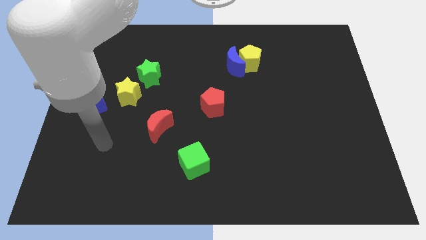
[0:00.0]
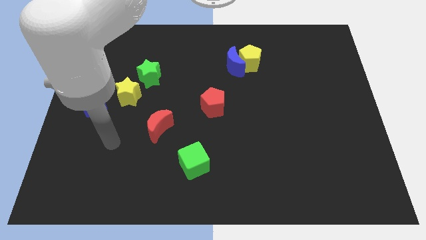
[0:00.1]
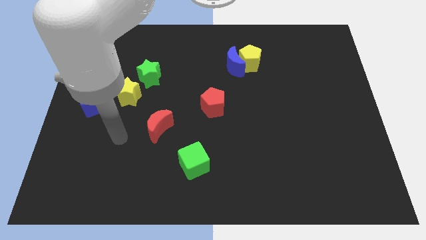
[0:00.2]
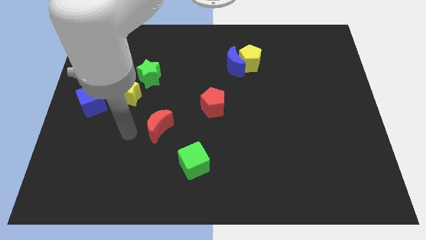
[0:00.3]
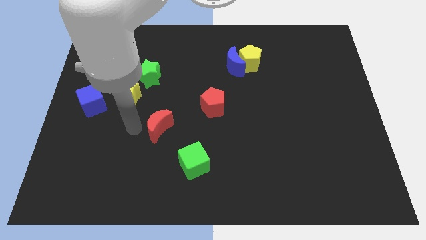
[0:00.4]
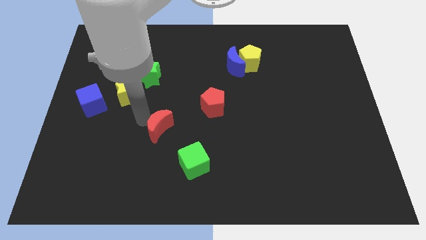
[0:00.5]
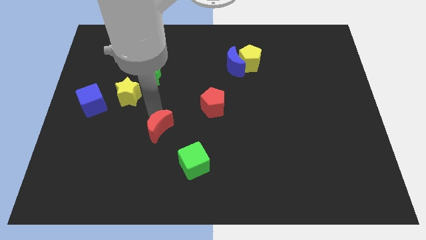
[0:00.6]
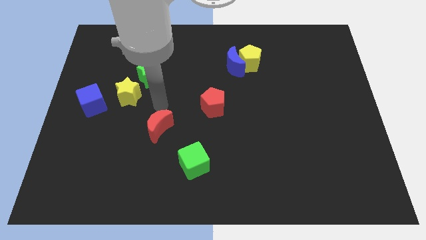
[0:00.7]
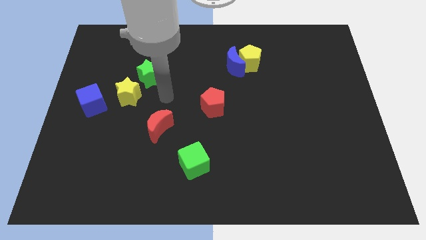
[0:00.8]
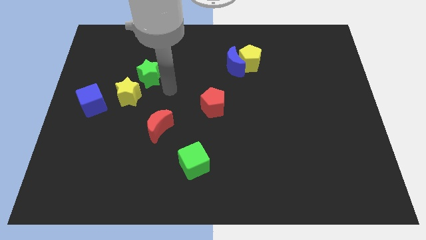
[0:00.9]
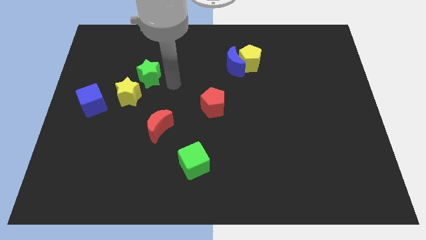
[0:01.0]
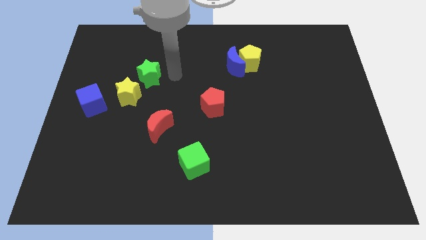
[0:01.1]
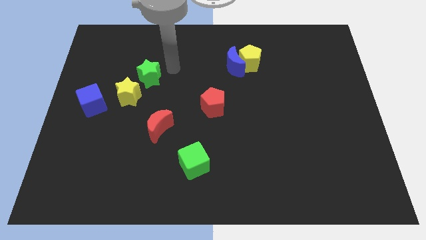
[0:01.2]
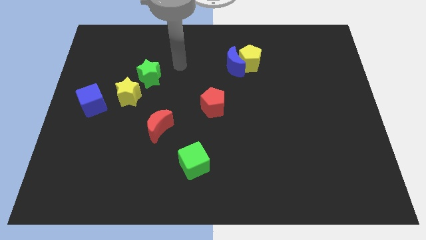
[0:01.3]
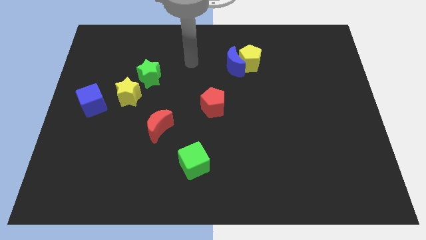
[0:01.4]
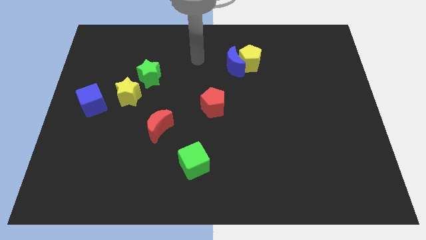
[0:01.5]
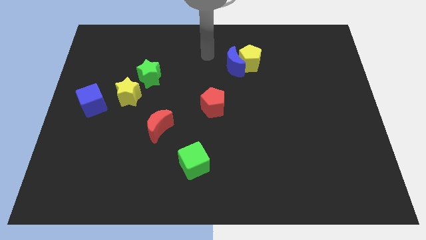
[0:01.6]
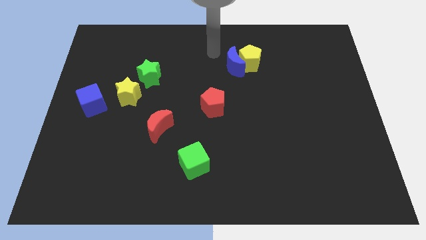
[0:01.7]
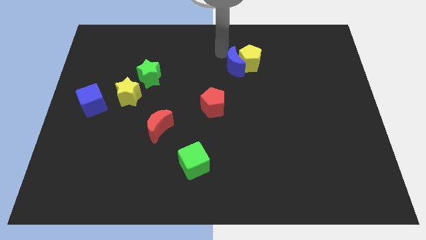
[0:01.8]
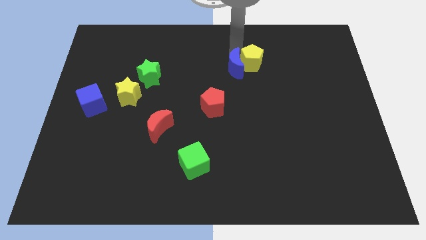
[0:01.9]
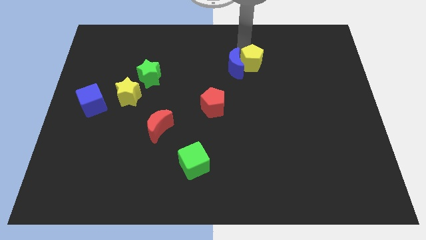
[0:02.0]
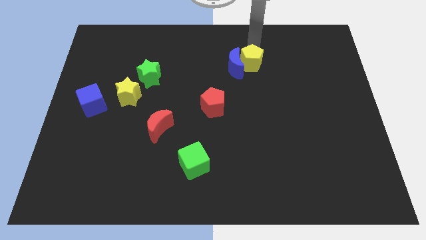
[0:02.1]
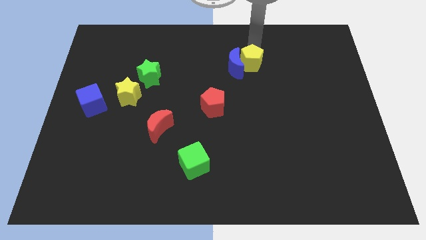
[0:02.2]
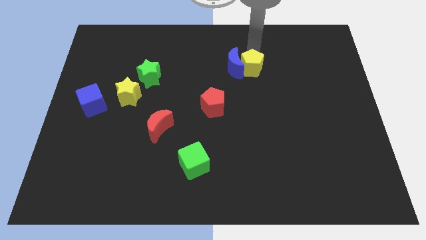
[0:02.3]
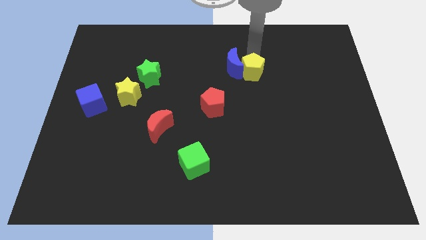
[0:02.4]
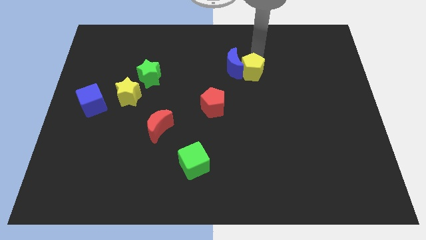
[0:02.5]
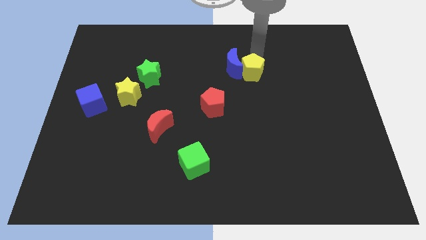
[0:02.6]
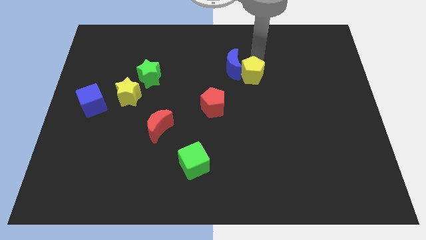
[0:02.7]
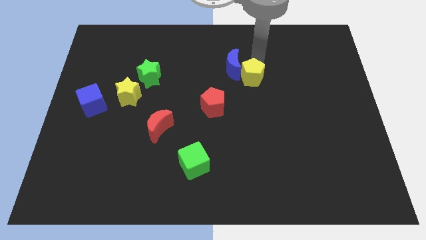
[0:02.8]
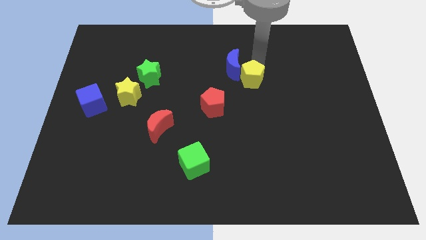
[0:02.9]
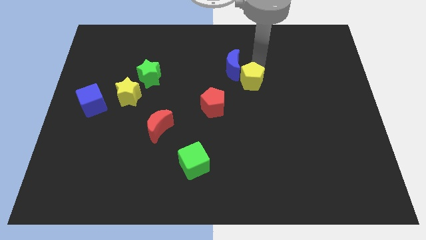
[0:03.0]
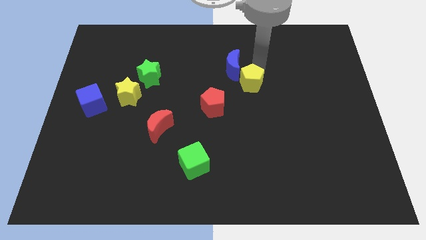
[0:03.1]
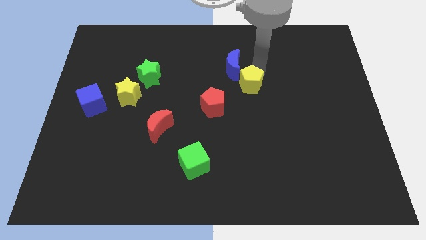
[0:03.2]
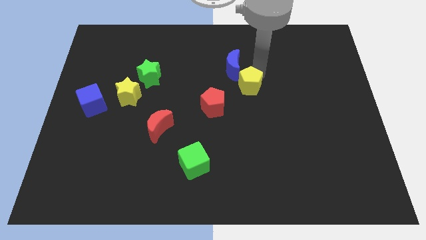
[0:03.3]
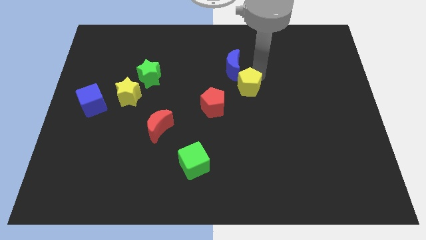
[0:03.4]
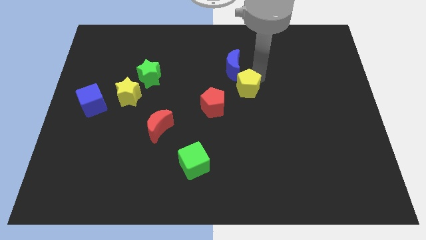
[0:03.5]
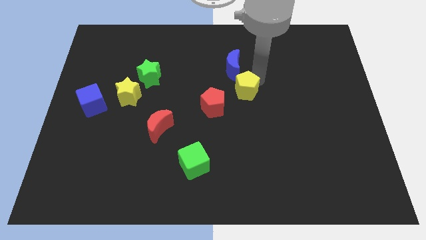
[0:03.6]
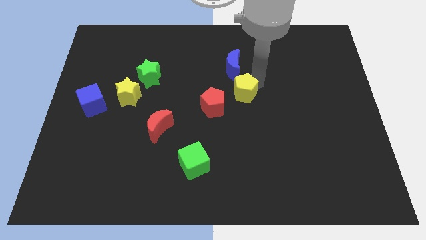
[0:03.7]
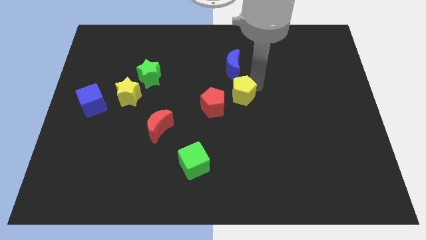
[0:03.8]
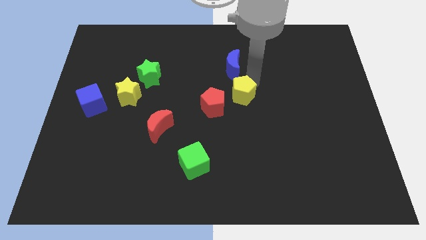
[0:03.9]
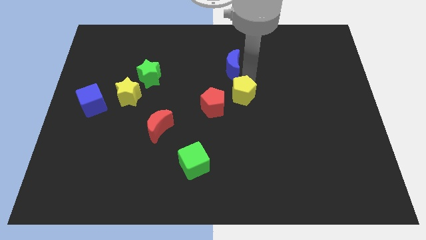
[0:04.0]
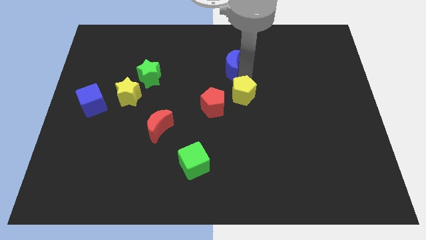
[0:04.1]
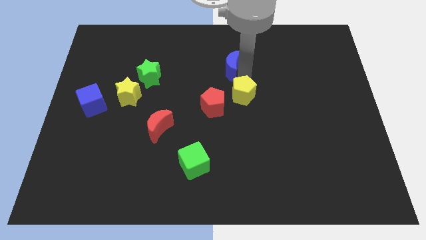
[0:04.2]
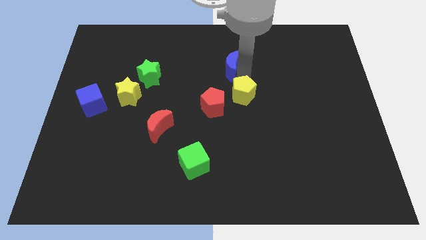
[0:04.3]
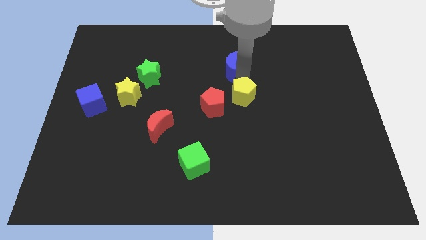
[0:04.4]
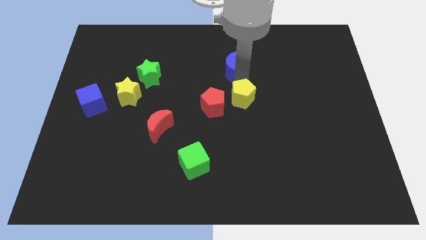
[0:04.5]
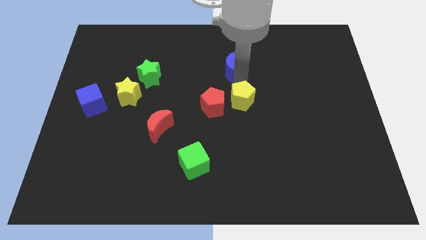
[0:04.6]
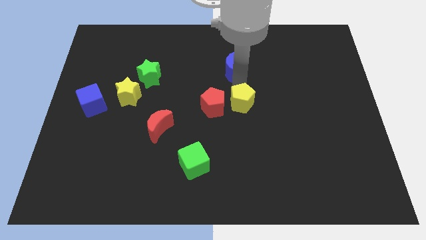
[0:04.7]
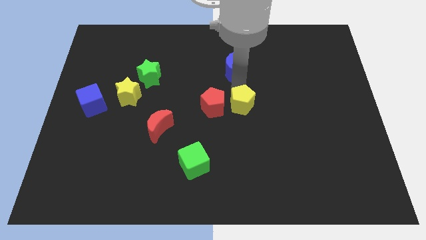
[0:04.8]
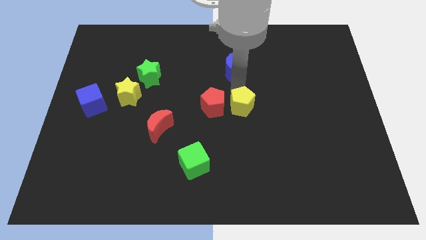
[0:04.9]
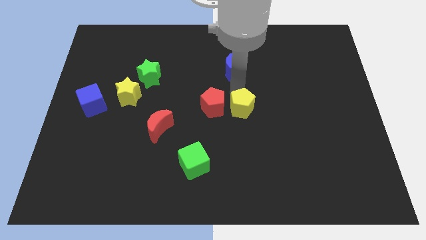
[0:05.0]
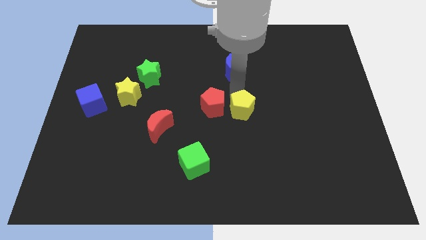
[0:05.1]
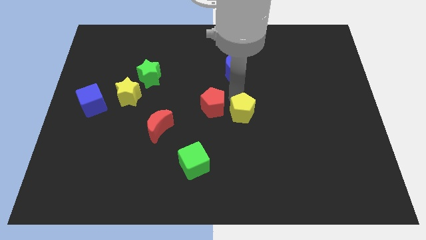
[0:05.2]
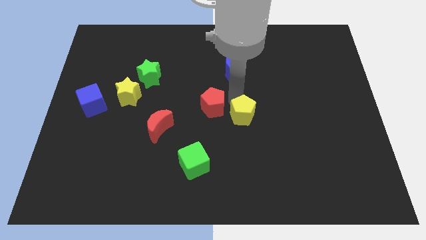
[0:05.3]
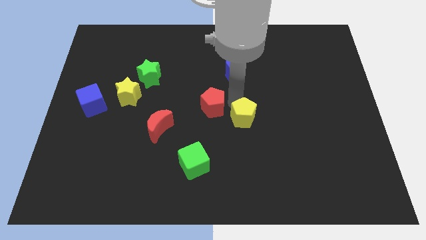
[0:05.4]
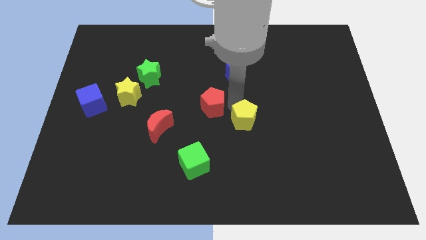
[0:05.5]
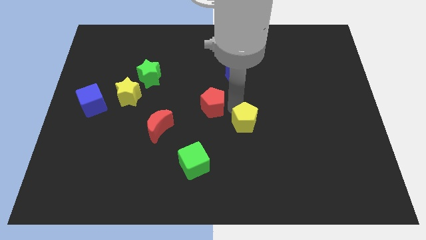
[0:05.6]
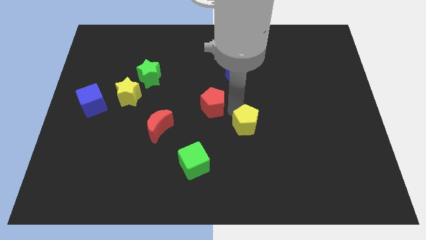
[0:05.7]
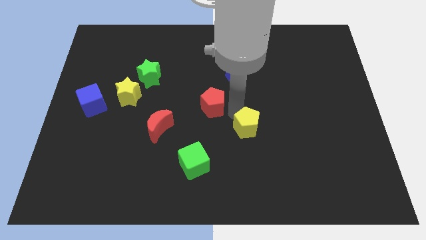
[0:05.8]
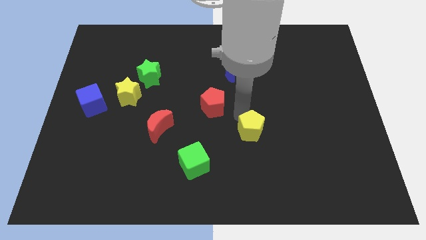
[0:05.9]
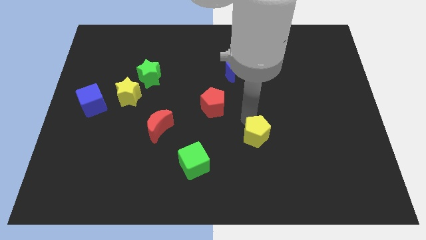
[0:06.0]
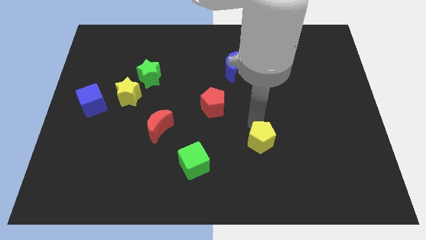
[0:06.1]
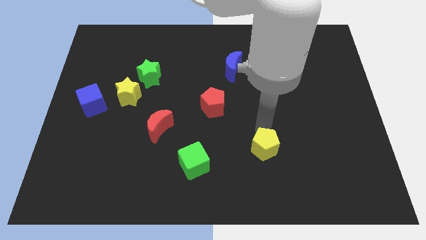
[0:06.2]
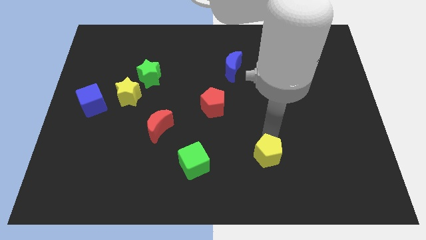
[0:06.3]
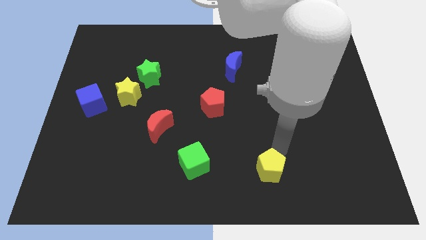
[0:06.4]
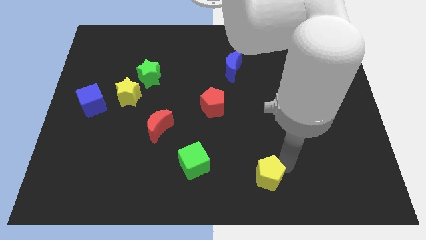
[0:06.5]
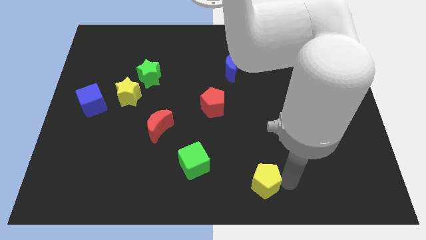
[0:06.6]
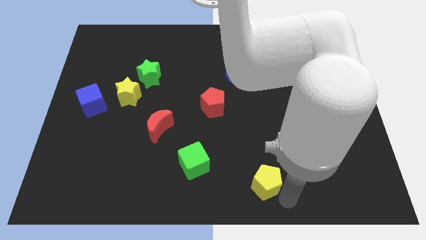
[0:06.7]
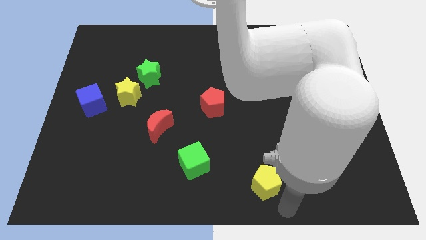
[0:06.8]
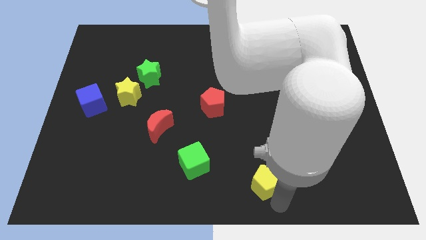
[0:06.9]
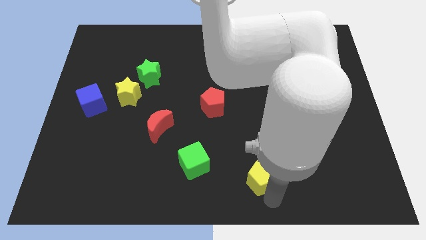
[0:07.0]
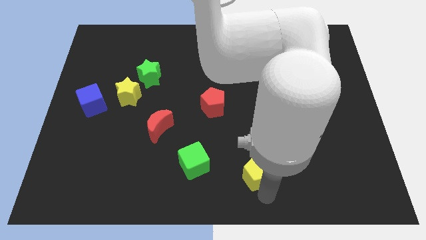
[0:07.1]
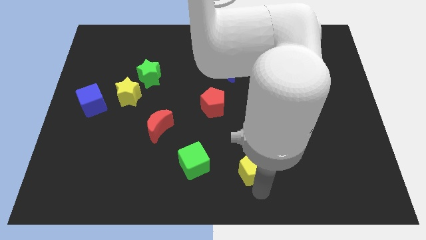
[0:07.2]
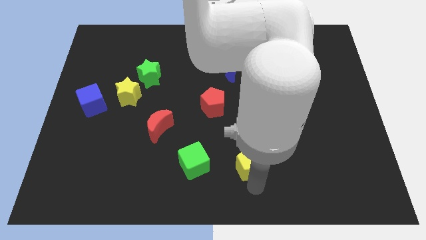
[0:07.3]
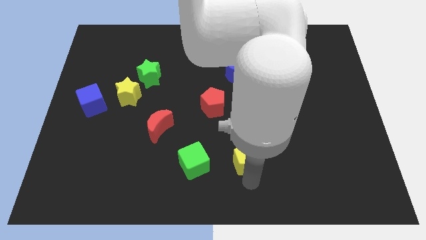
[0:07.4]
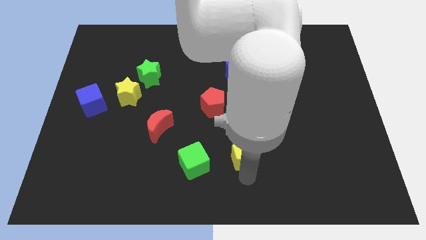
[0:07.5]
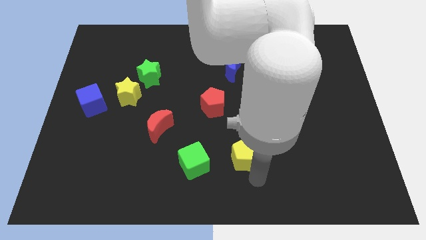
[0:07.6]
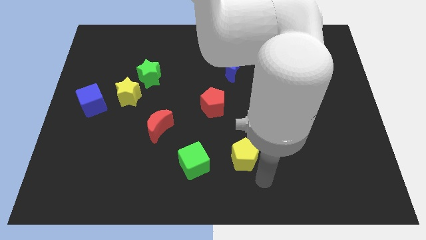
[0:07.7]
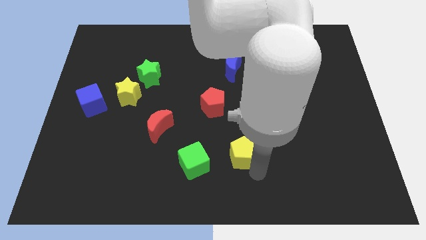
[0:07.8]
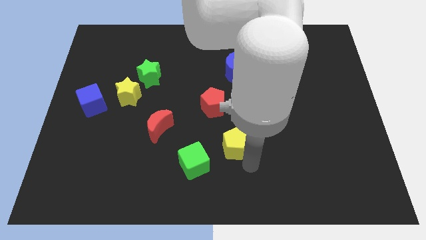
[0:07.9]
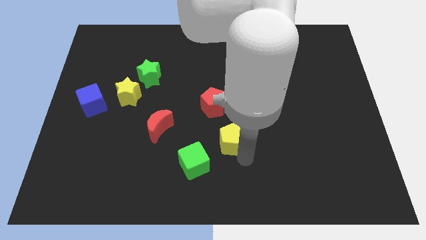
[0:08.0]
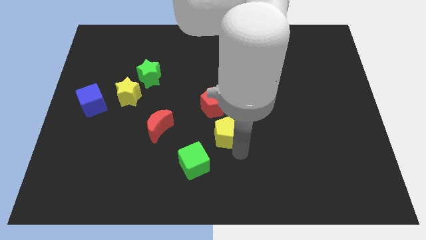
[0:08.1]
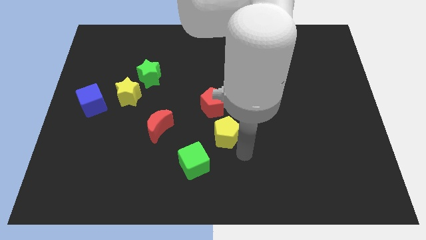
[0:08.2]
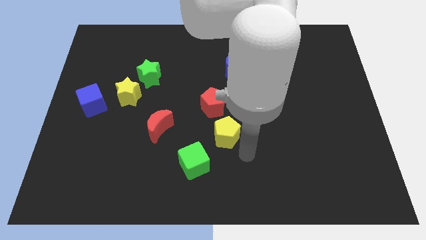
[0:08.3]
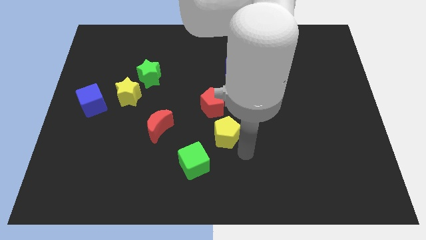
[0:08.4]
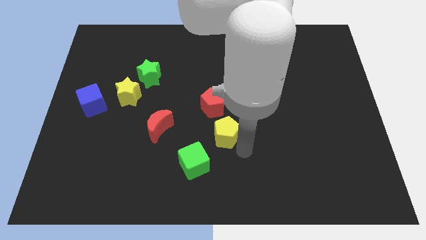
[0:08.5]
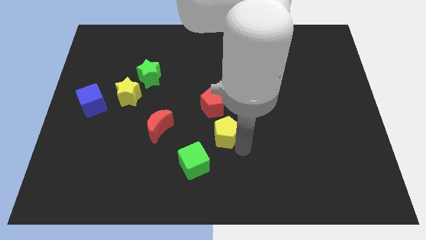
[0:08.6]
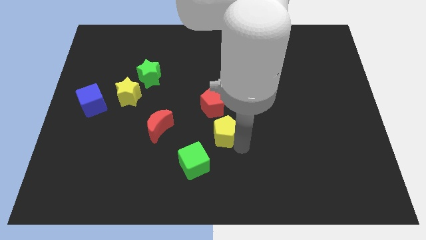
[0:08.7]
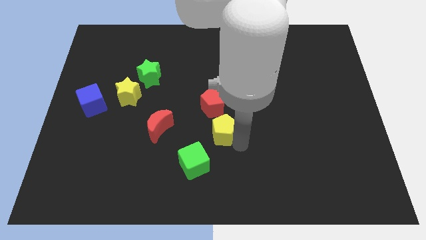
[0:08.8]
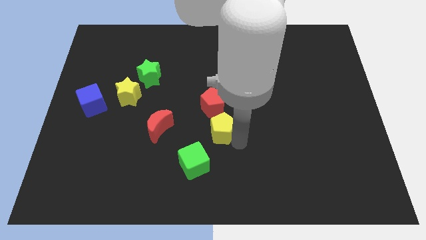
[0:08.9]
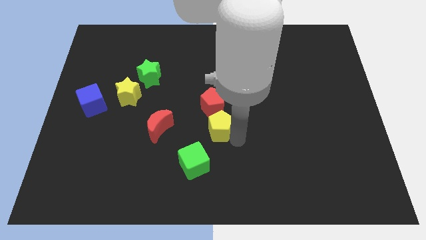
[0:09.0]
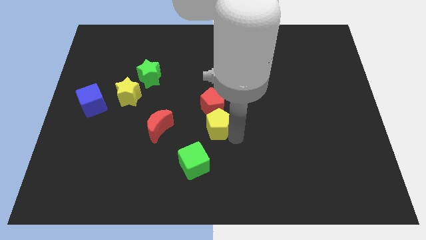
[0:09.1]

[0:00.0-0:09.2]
slide the yellow pentagon to the top side of the green cube
